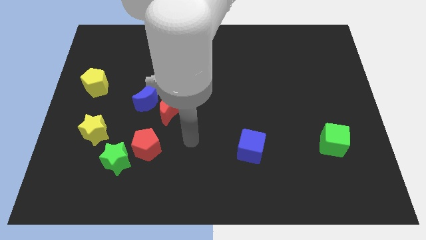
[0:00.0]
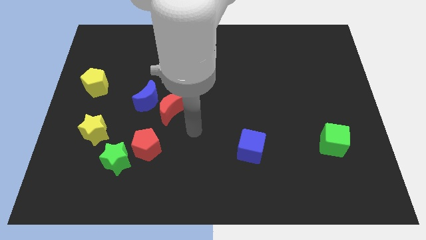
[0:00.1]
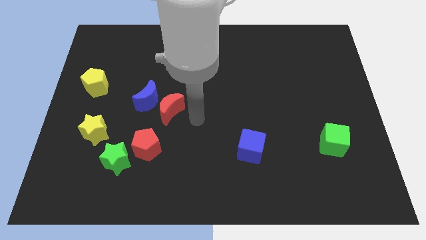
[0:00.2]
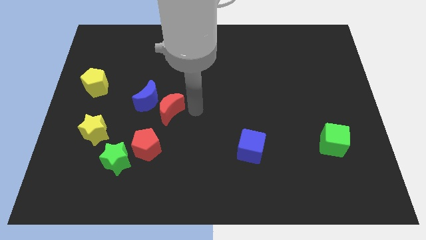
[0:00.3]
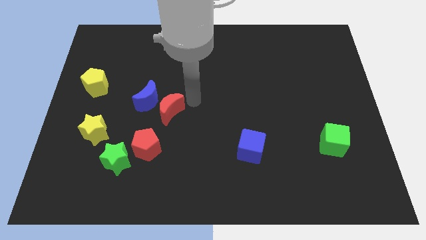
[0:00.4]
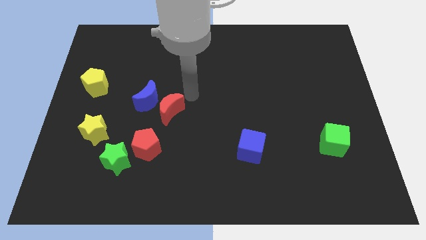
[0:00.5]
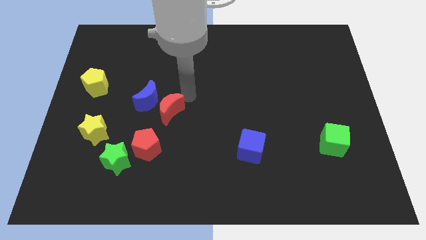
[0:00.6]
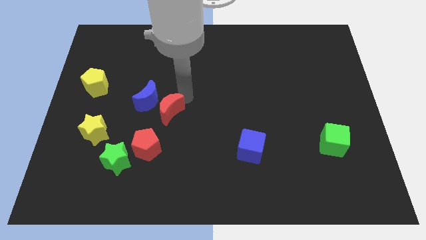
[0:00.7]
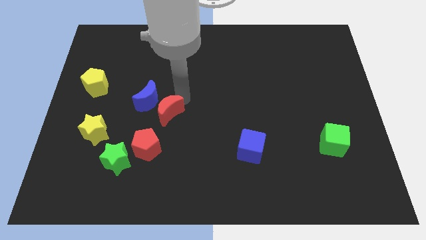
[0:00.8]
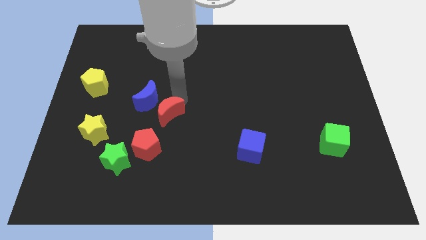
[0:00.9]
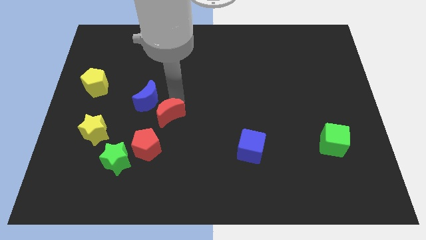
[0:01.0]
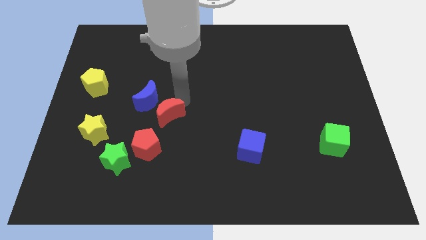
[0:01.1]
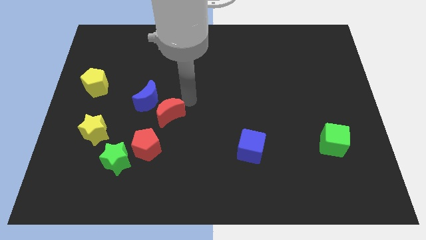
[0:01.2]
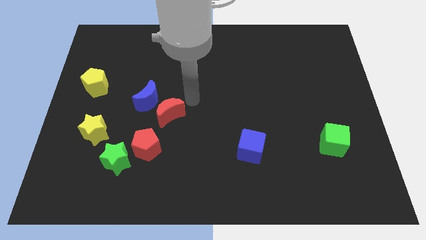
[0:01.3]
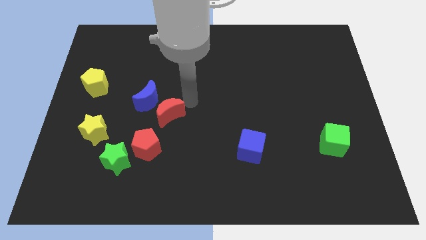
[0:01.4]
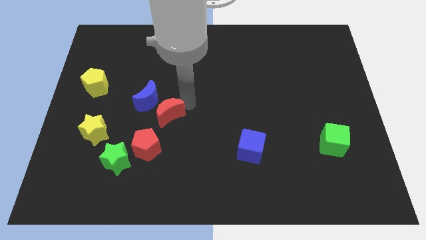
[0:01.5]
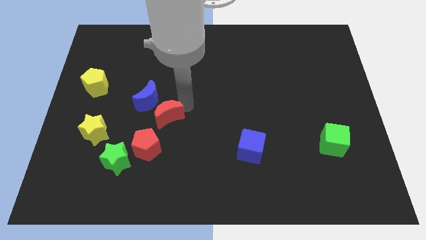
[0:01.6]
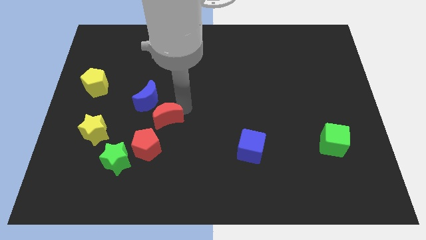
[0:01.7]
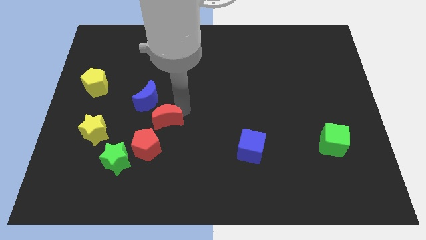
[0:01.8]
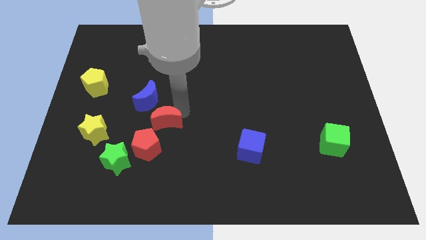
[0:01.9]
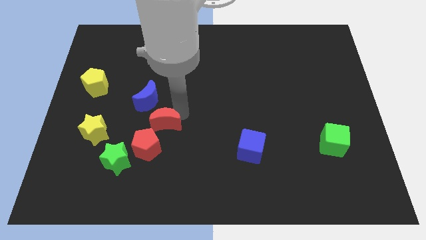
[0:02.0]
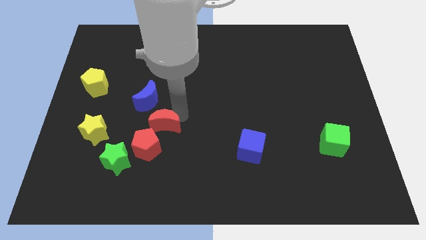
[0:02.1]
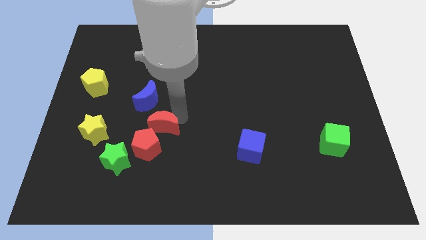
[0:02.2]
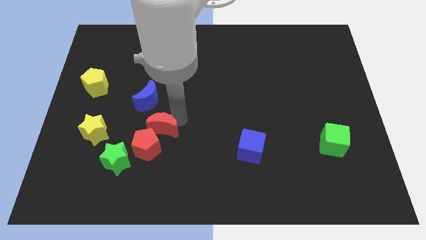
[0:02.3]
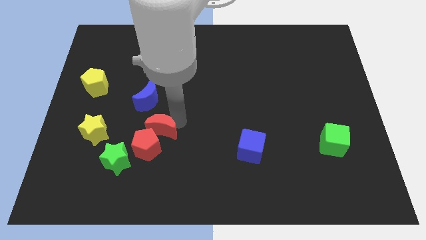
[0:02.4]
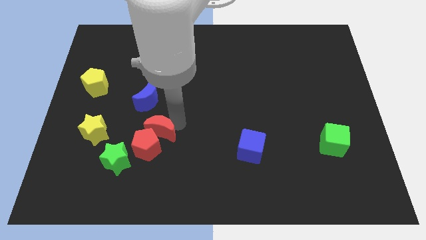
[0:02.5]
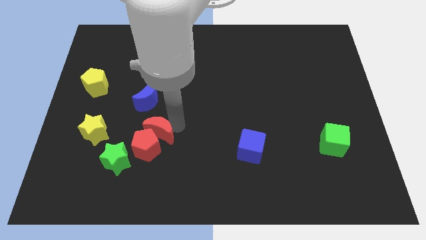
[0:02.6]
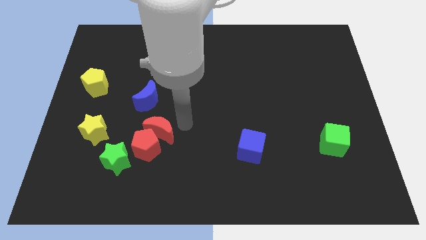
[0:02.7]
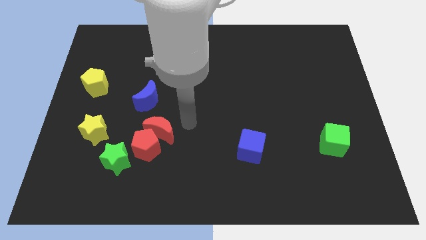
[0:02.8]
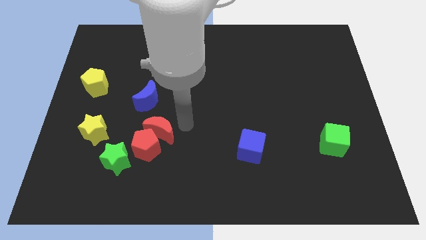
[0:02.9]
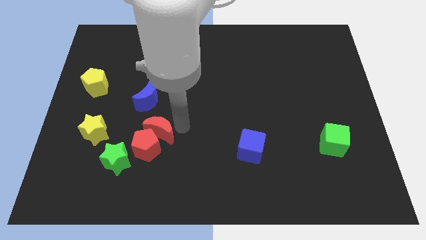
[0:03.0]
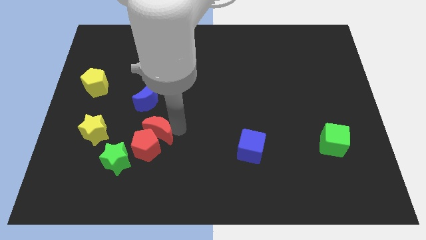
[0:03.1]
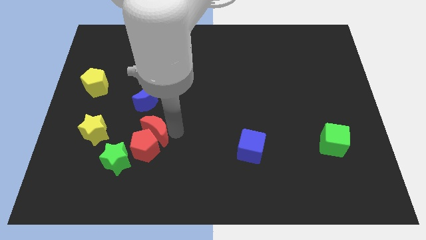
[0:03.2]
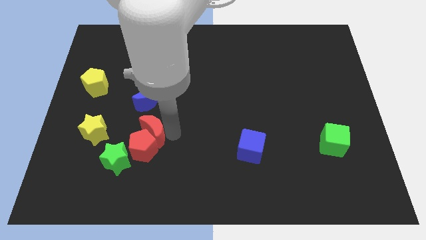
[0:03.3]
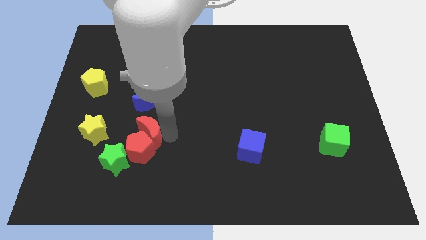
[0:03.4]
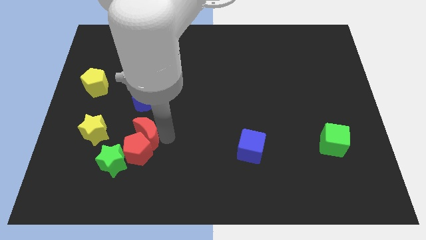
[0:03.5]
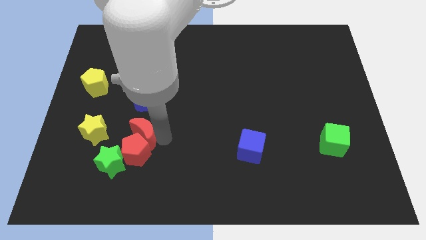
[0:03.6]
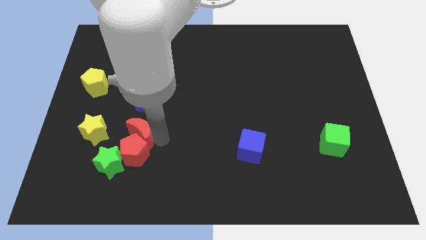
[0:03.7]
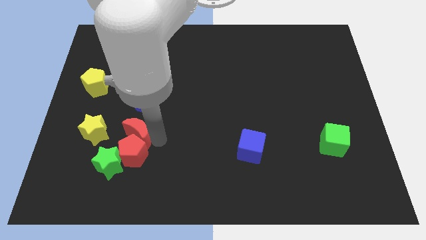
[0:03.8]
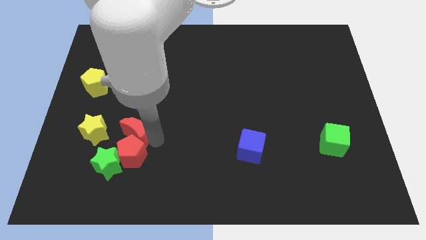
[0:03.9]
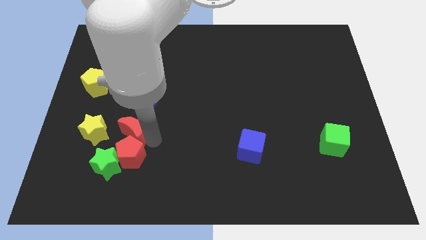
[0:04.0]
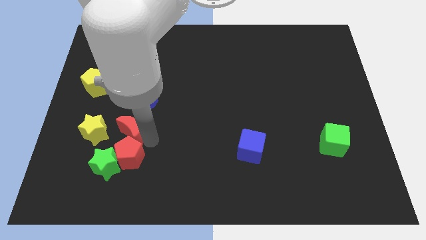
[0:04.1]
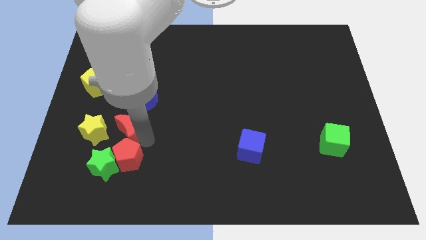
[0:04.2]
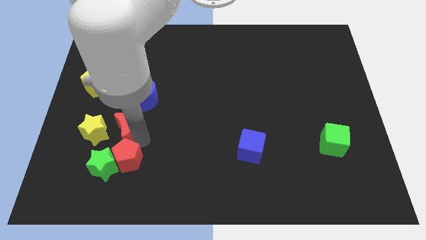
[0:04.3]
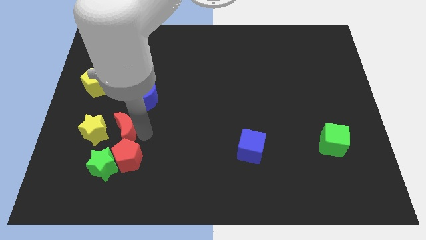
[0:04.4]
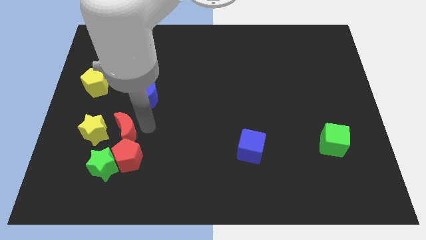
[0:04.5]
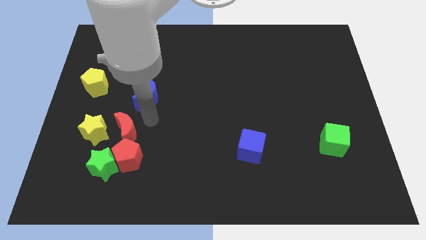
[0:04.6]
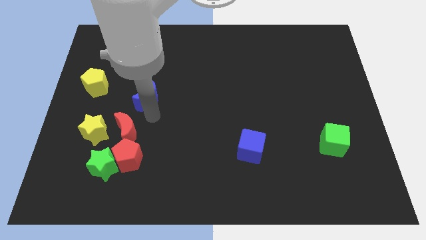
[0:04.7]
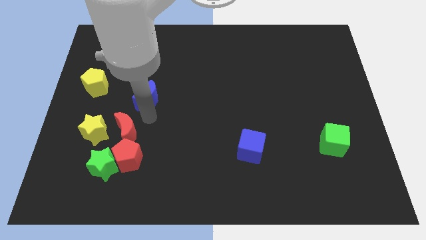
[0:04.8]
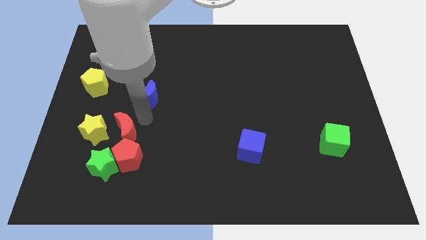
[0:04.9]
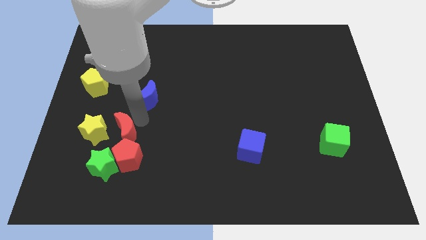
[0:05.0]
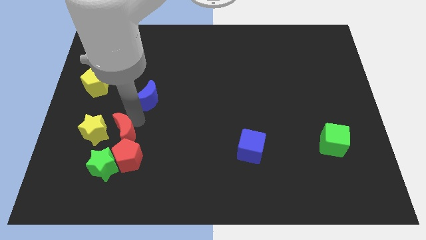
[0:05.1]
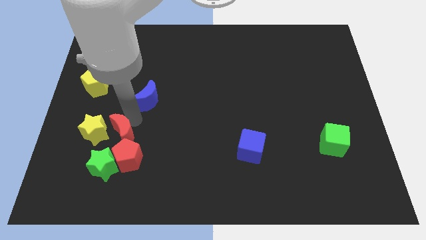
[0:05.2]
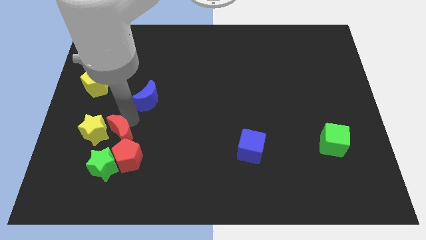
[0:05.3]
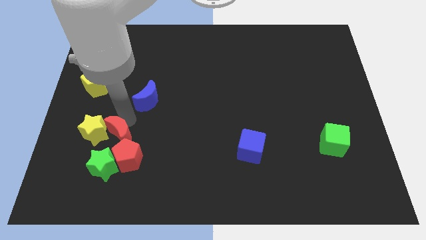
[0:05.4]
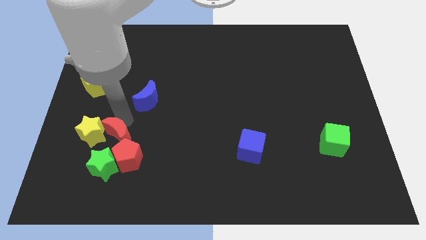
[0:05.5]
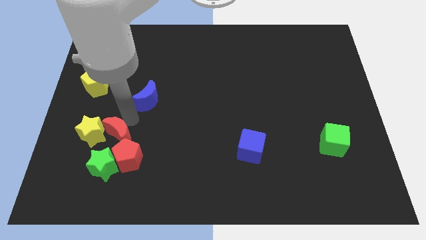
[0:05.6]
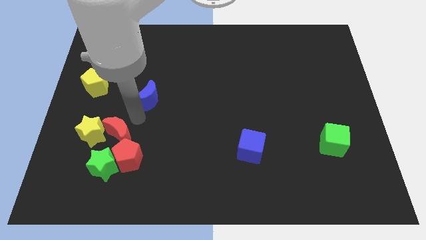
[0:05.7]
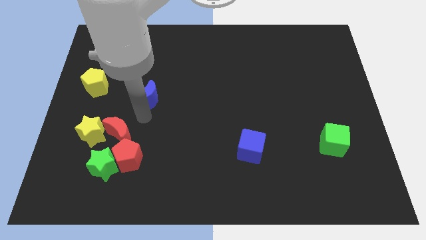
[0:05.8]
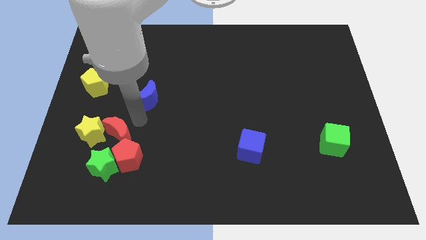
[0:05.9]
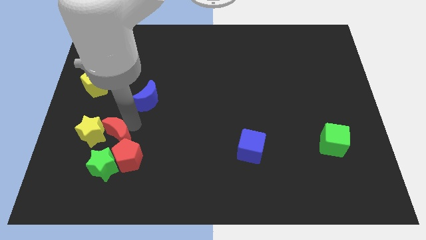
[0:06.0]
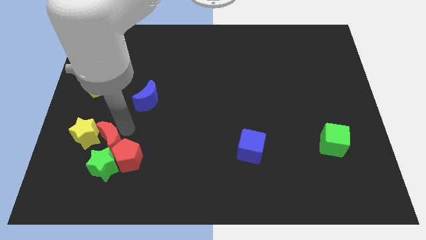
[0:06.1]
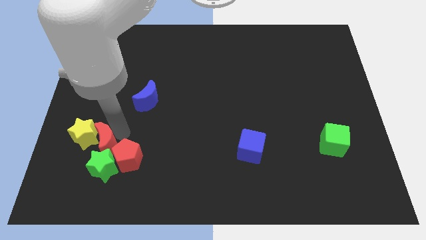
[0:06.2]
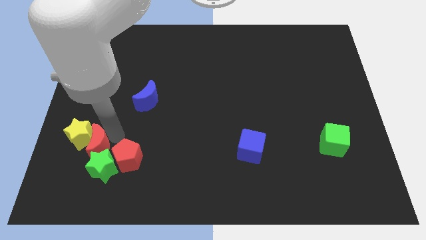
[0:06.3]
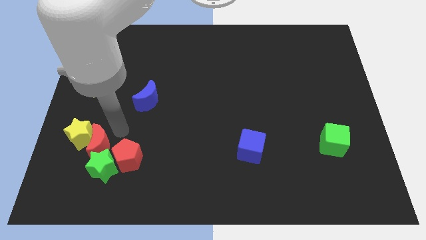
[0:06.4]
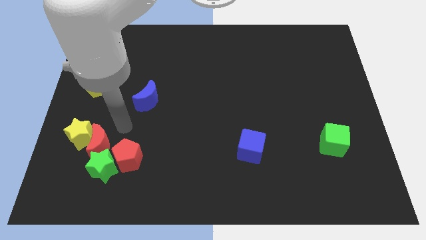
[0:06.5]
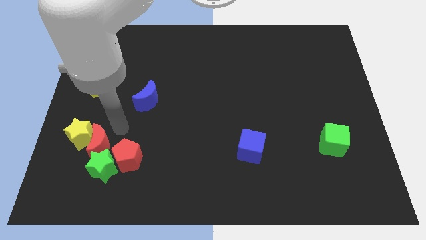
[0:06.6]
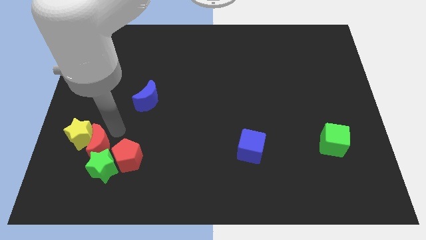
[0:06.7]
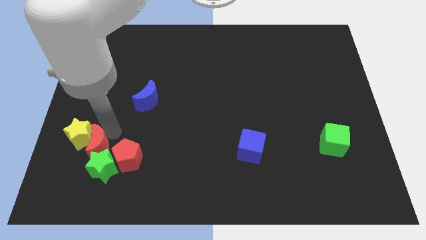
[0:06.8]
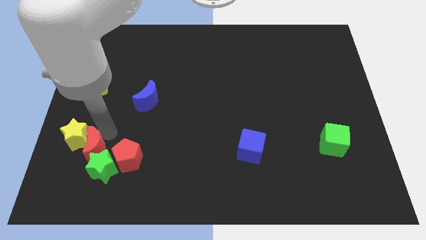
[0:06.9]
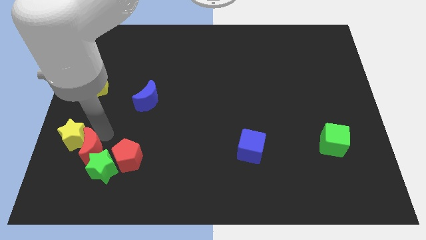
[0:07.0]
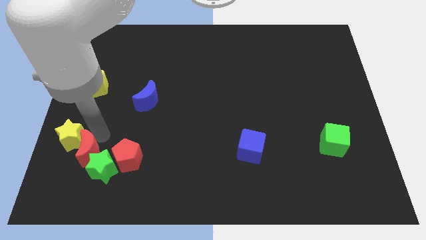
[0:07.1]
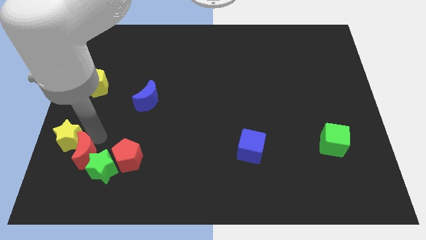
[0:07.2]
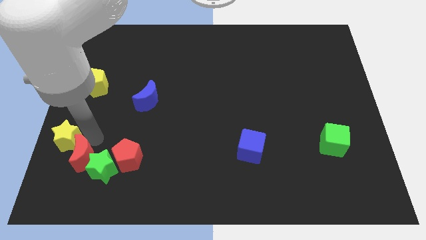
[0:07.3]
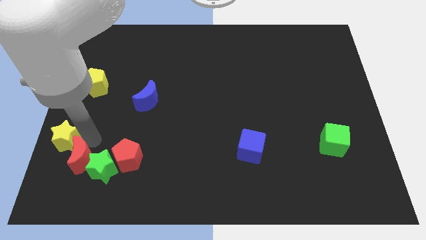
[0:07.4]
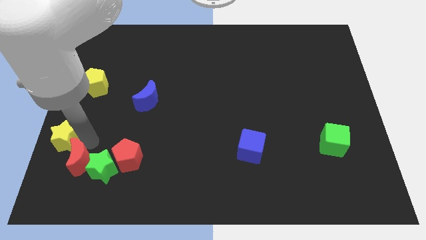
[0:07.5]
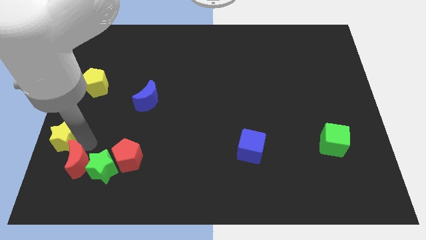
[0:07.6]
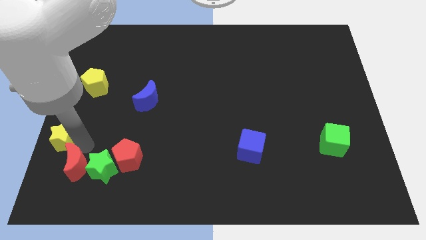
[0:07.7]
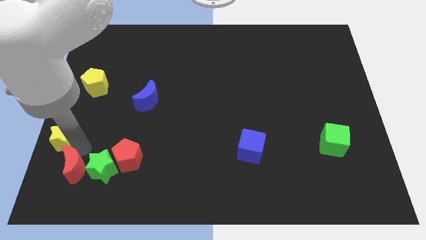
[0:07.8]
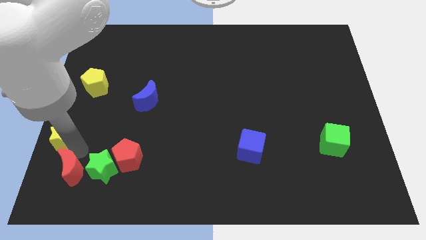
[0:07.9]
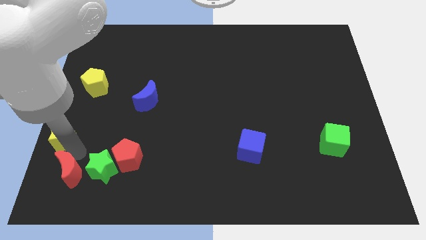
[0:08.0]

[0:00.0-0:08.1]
slide the red moon to the lower left corner
